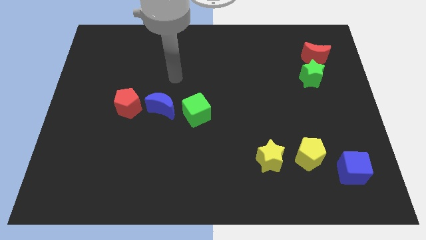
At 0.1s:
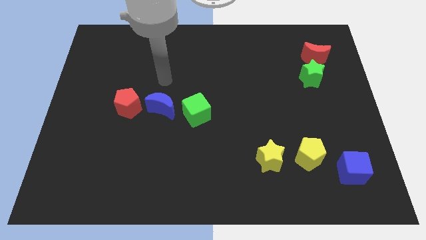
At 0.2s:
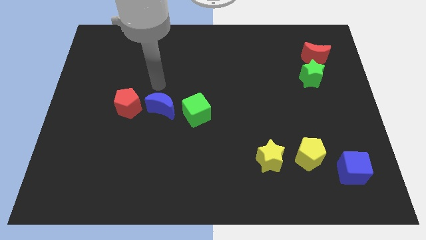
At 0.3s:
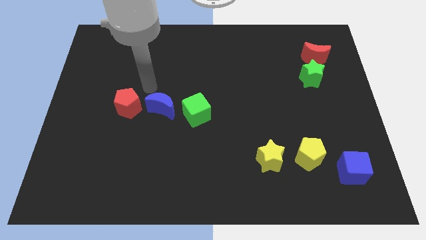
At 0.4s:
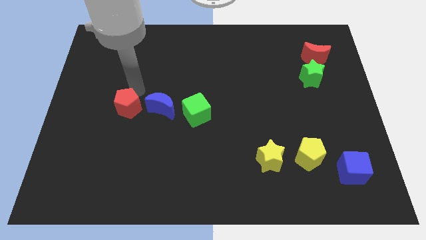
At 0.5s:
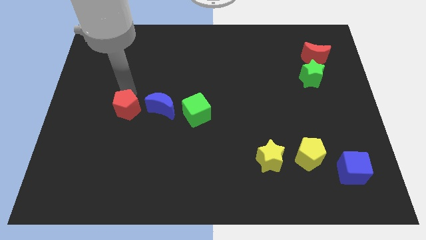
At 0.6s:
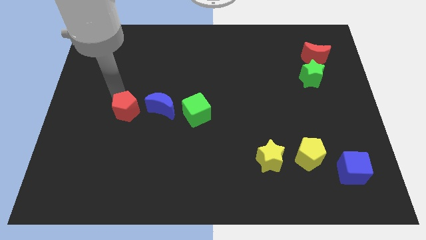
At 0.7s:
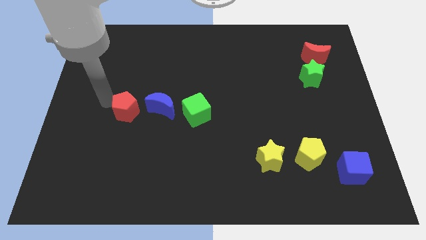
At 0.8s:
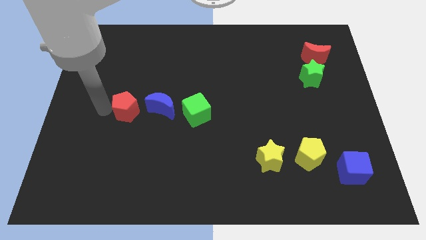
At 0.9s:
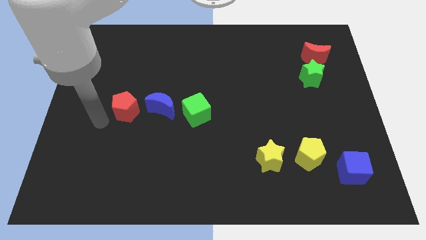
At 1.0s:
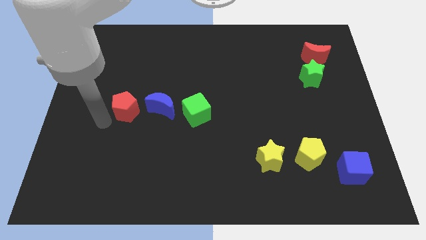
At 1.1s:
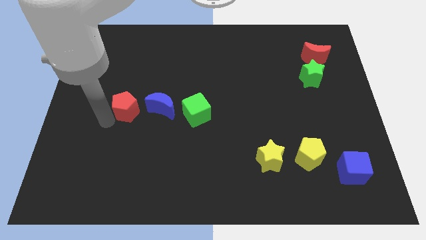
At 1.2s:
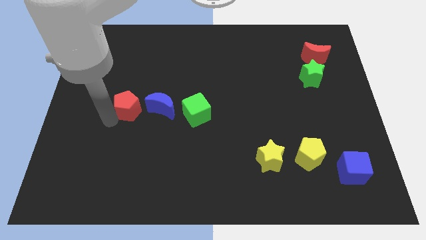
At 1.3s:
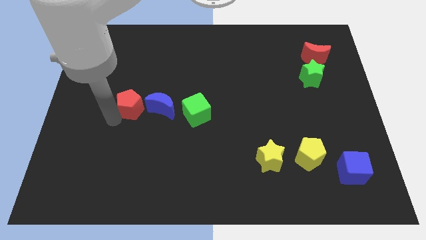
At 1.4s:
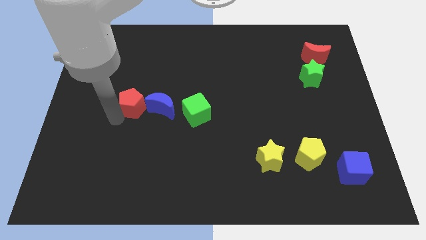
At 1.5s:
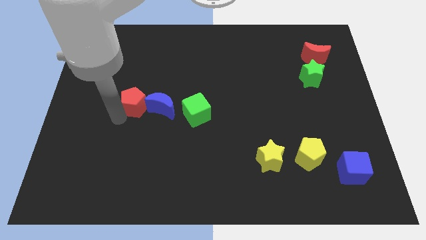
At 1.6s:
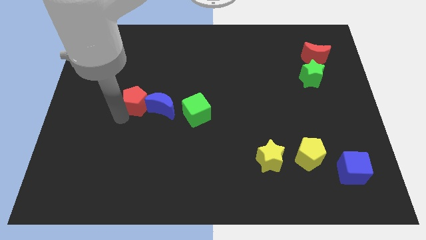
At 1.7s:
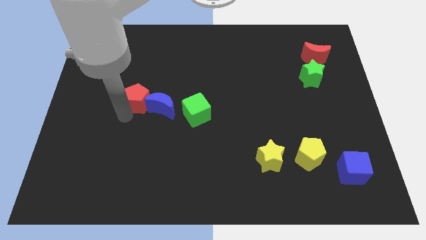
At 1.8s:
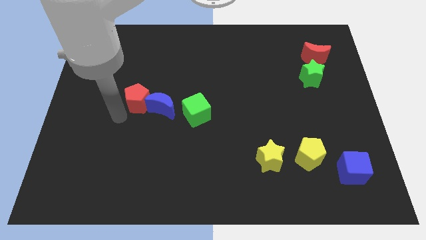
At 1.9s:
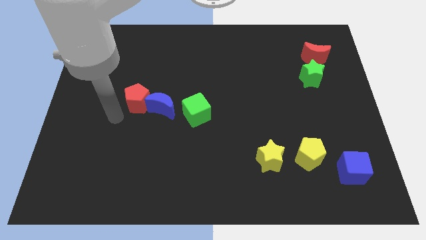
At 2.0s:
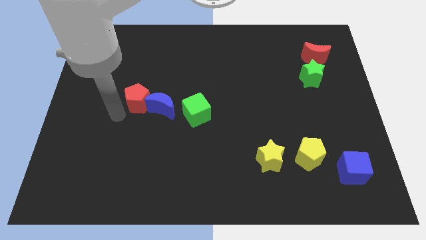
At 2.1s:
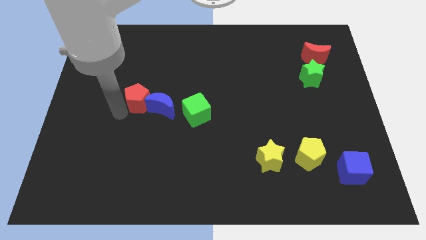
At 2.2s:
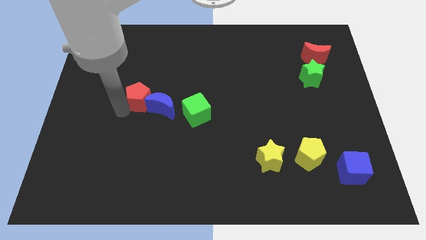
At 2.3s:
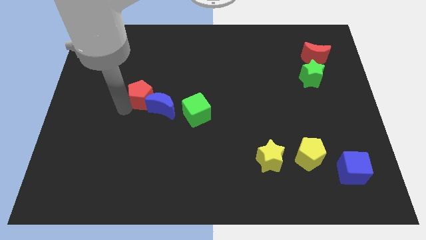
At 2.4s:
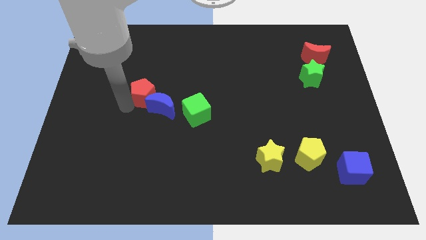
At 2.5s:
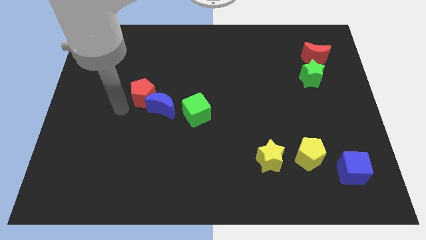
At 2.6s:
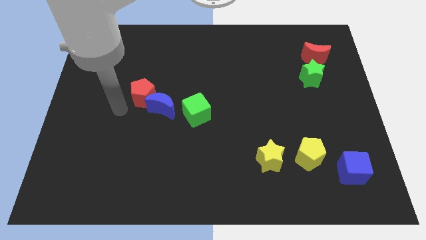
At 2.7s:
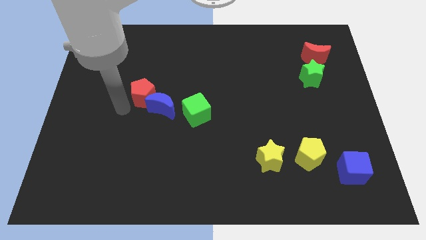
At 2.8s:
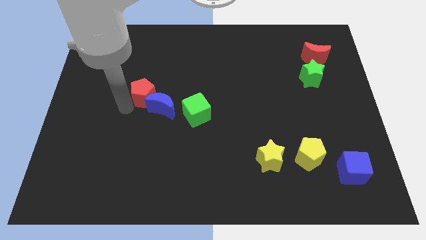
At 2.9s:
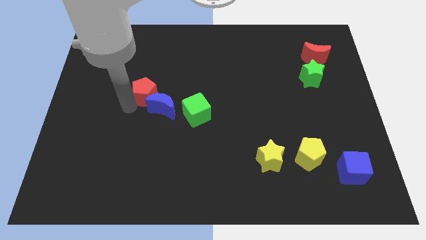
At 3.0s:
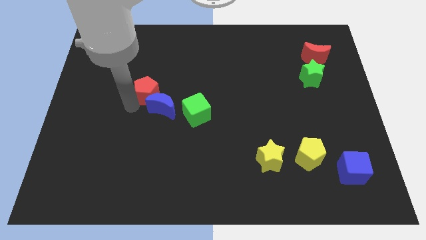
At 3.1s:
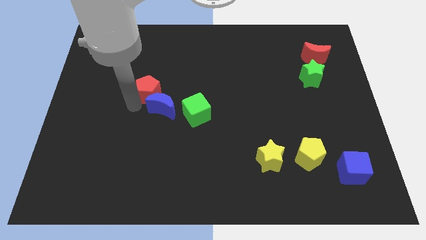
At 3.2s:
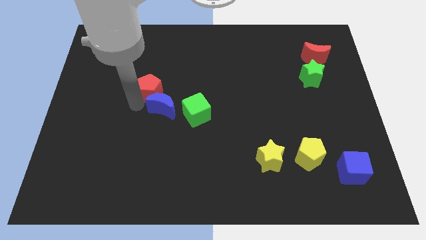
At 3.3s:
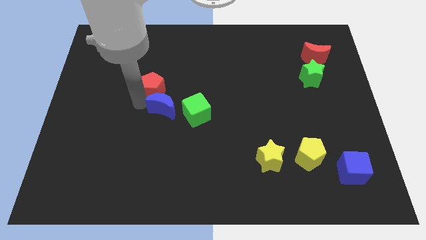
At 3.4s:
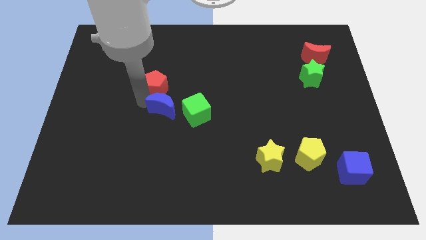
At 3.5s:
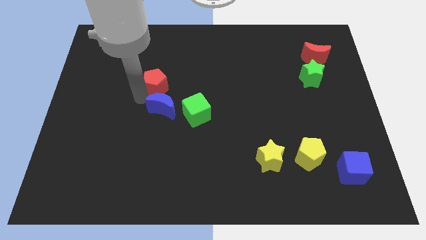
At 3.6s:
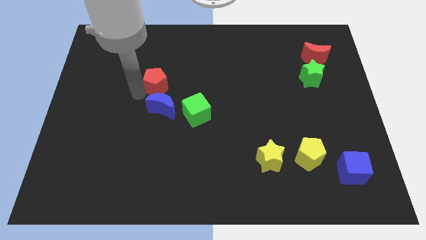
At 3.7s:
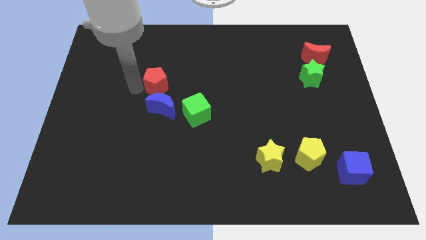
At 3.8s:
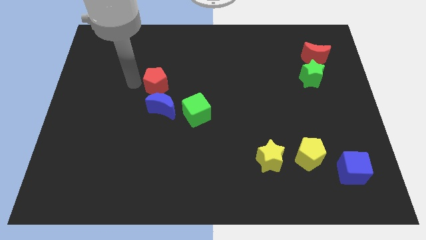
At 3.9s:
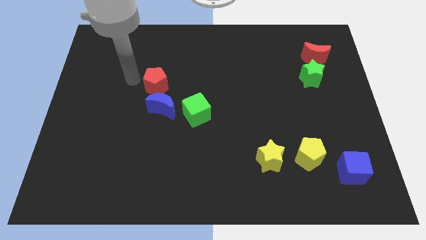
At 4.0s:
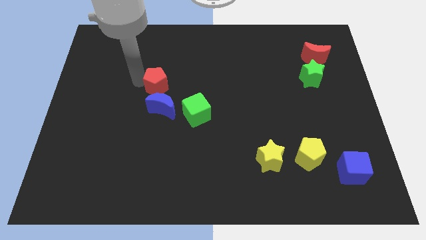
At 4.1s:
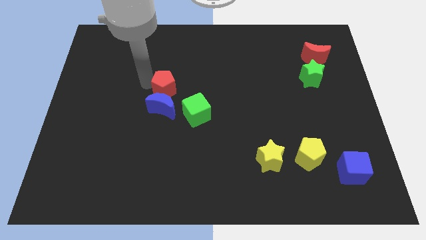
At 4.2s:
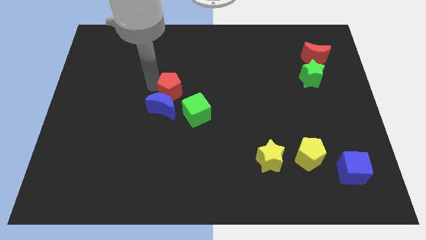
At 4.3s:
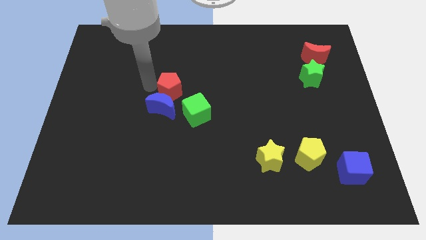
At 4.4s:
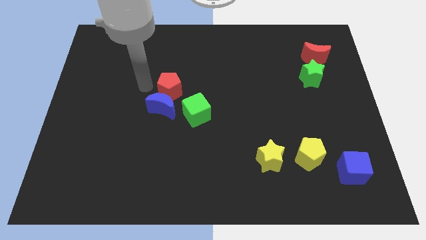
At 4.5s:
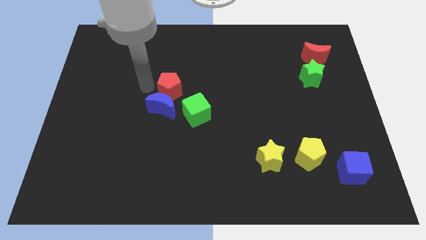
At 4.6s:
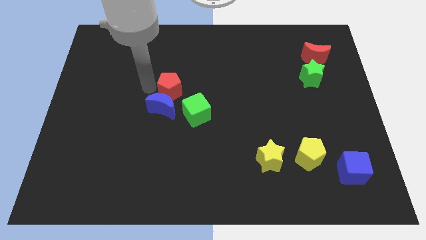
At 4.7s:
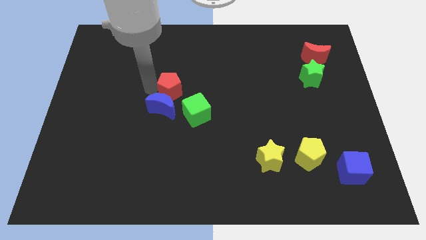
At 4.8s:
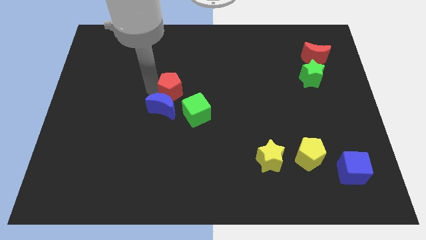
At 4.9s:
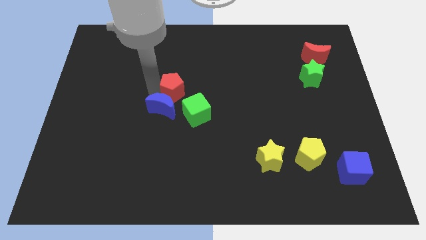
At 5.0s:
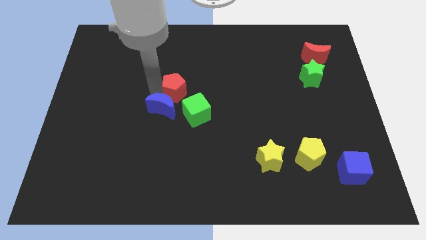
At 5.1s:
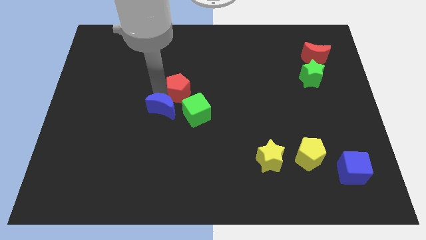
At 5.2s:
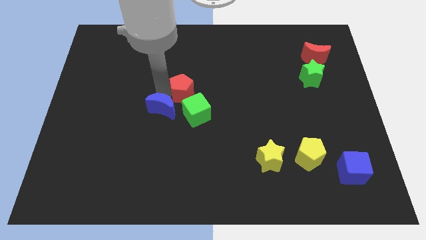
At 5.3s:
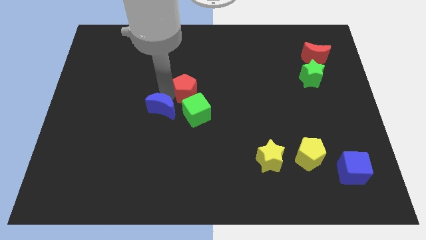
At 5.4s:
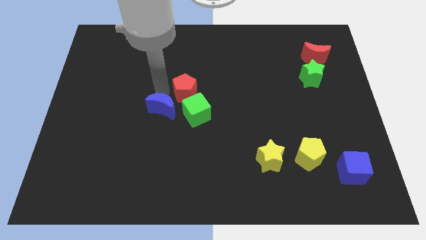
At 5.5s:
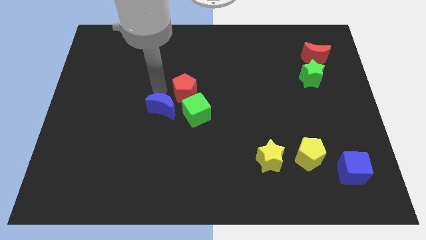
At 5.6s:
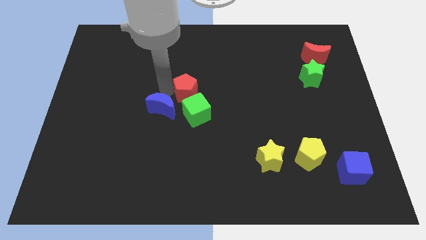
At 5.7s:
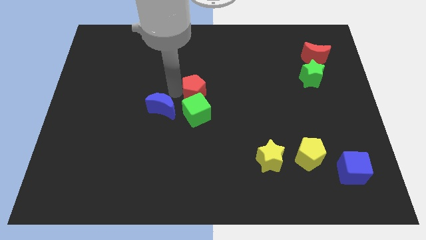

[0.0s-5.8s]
move the red pentagon to the top right of the green cube

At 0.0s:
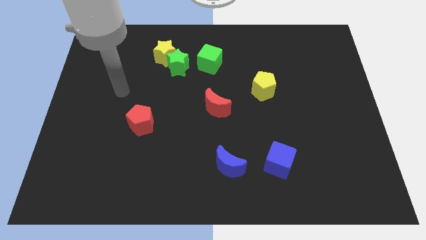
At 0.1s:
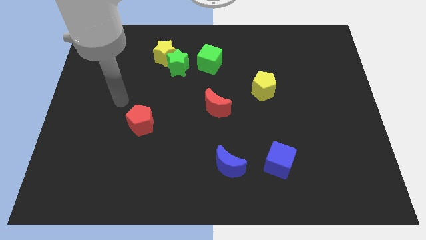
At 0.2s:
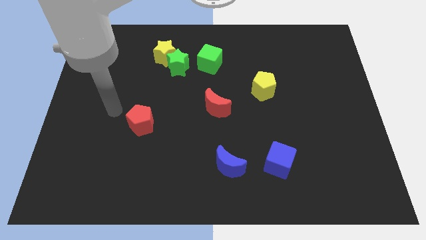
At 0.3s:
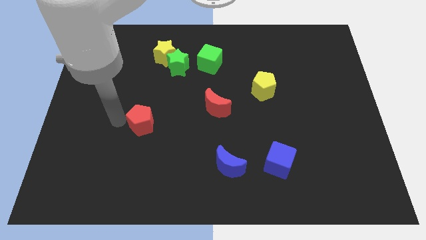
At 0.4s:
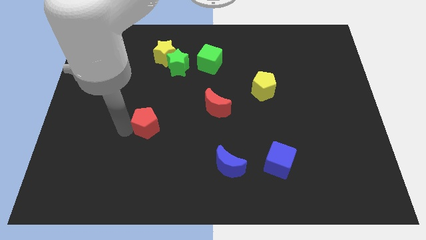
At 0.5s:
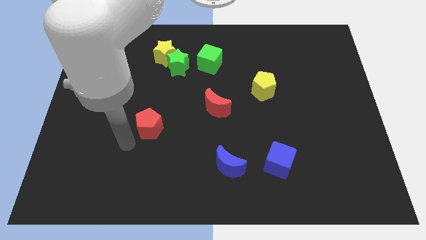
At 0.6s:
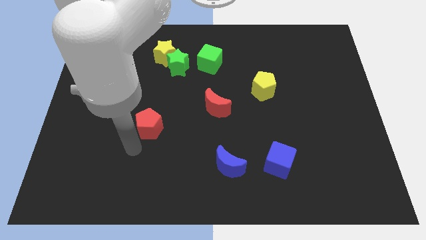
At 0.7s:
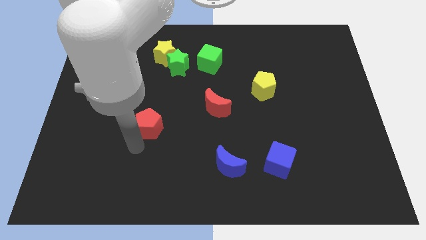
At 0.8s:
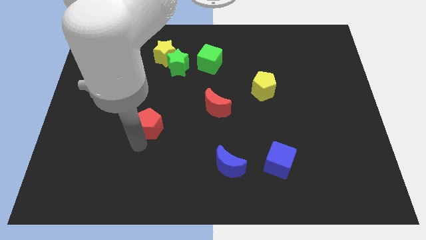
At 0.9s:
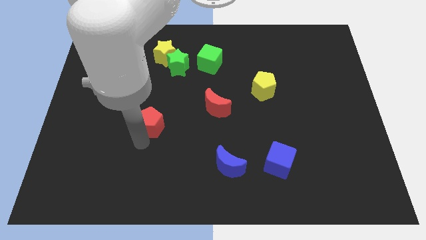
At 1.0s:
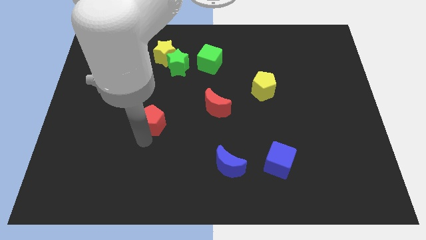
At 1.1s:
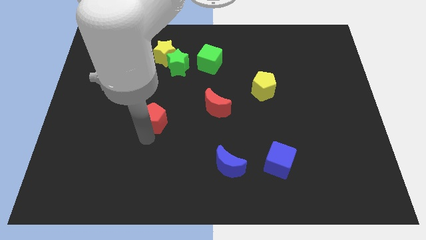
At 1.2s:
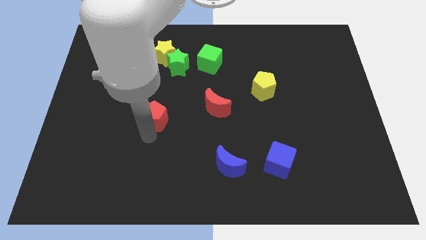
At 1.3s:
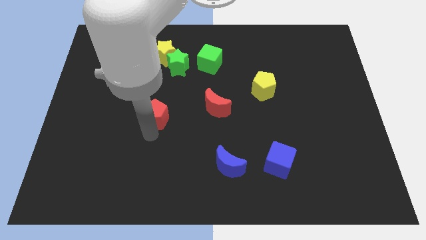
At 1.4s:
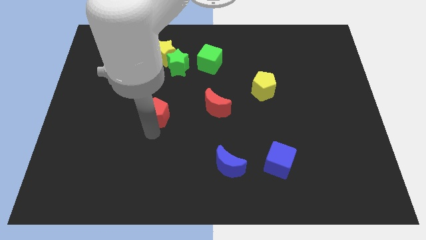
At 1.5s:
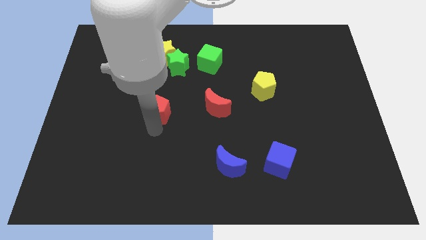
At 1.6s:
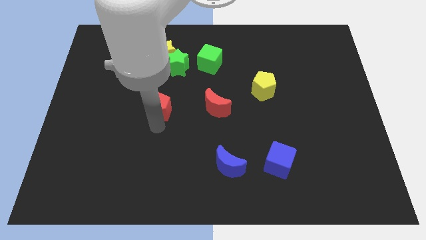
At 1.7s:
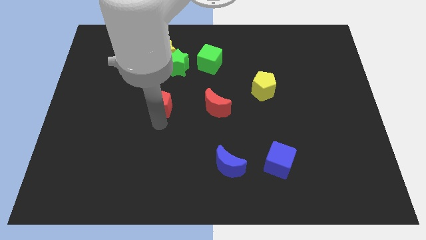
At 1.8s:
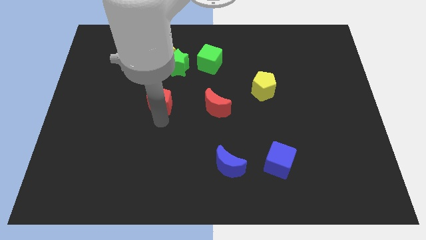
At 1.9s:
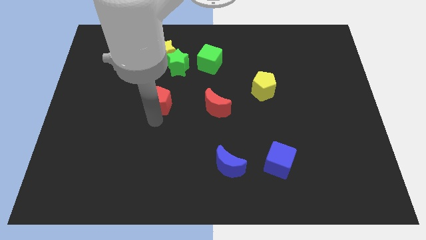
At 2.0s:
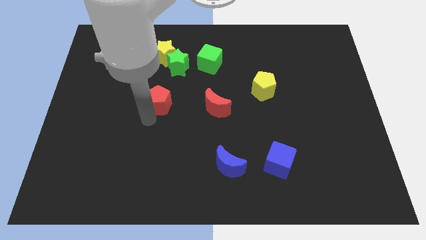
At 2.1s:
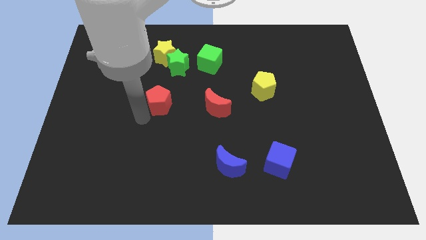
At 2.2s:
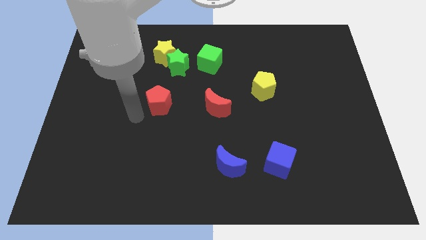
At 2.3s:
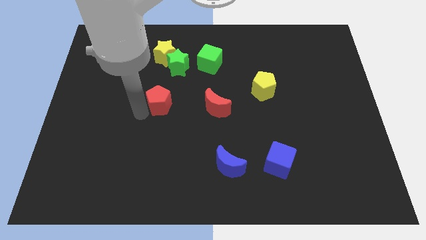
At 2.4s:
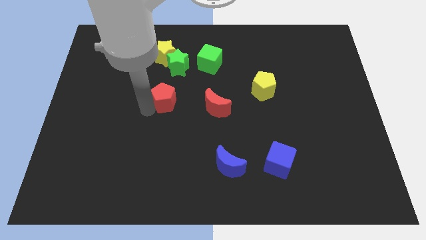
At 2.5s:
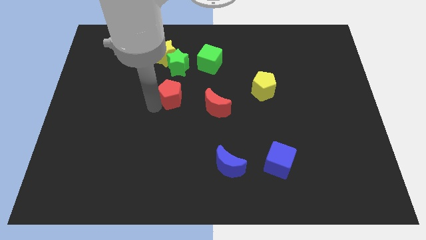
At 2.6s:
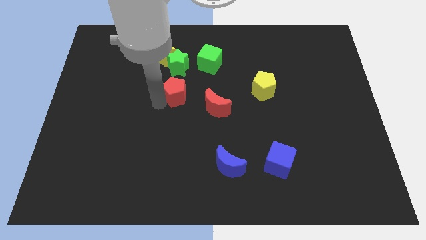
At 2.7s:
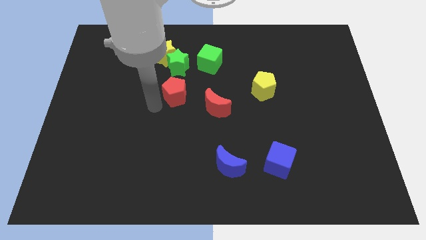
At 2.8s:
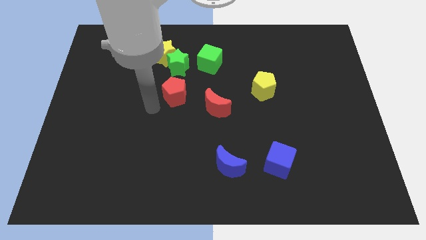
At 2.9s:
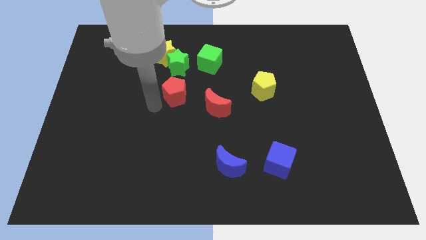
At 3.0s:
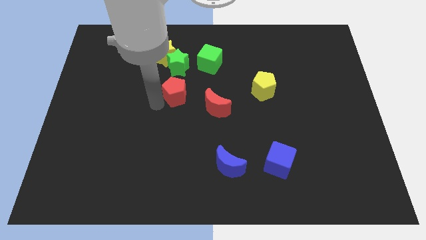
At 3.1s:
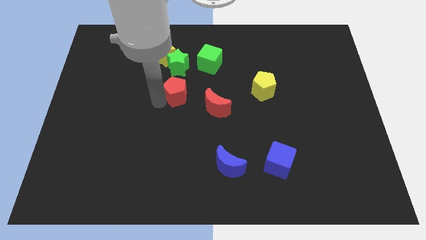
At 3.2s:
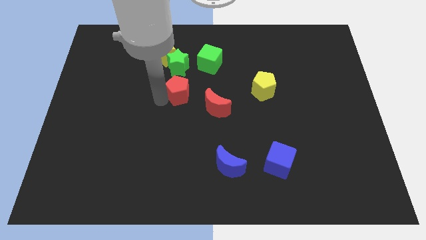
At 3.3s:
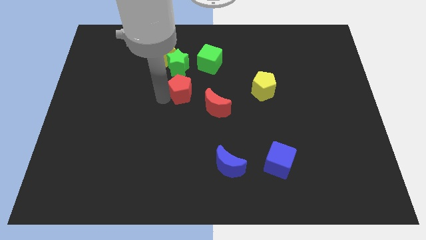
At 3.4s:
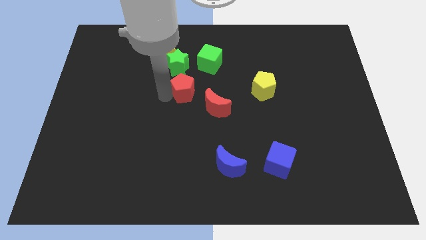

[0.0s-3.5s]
put the red pentagon to the bottom right side of the green star
